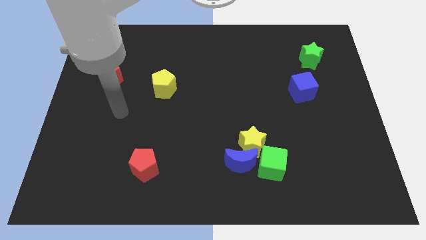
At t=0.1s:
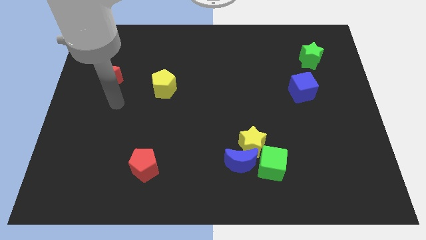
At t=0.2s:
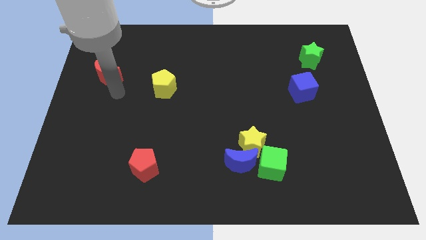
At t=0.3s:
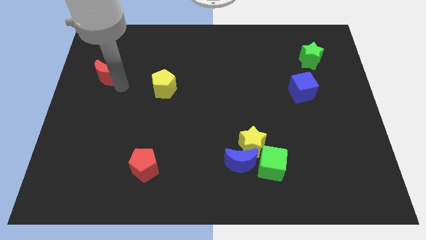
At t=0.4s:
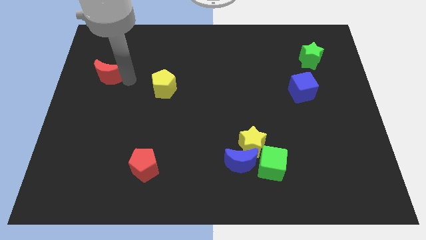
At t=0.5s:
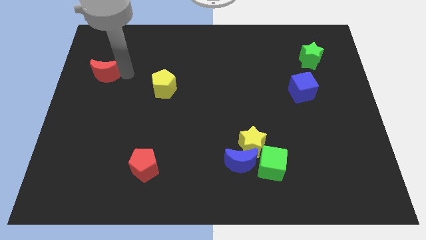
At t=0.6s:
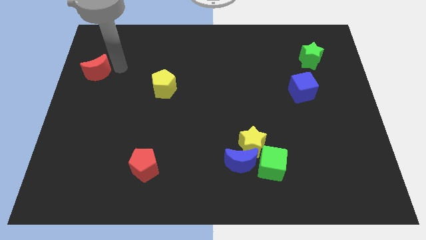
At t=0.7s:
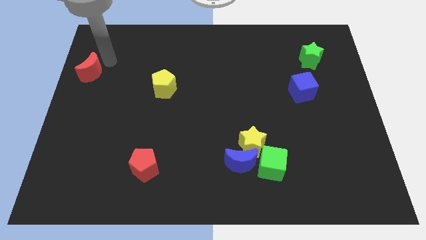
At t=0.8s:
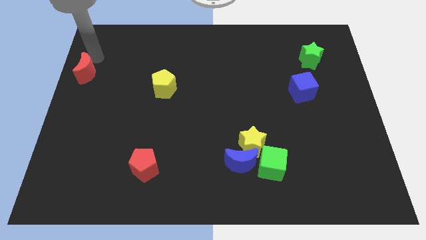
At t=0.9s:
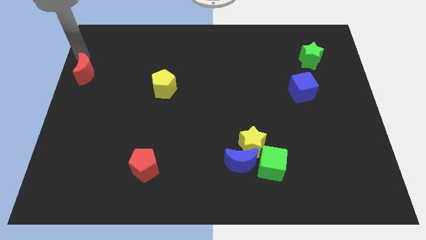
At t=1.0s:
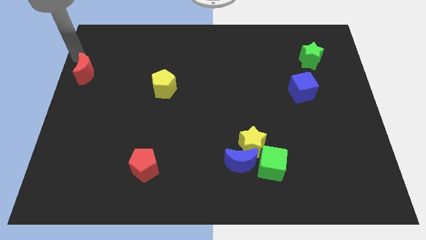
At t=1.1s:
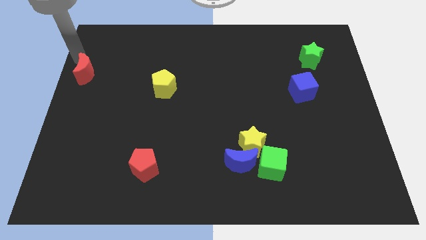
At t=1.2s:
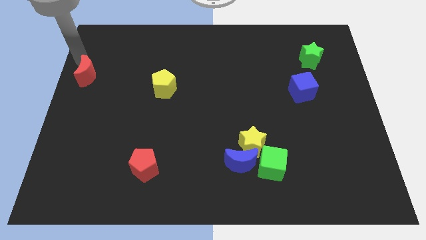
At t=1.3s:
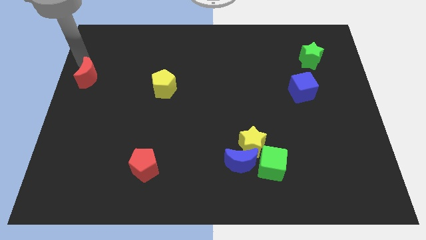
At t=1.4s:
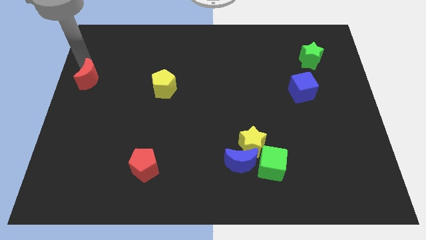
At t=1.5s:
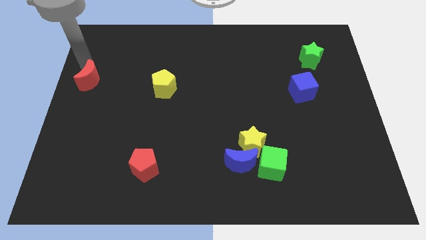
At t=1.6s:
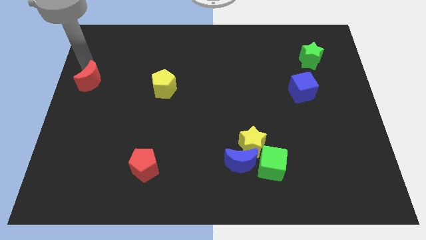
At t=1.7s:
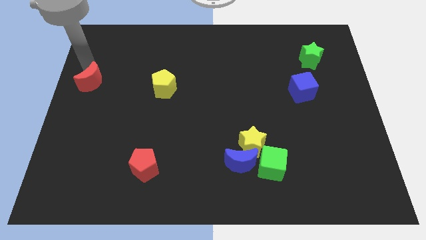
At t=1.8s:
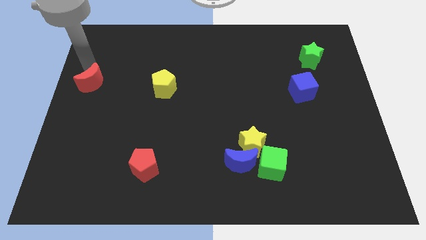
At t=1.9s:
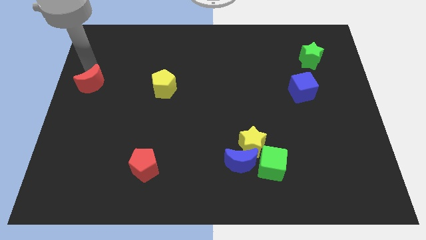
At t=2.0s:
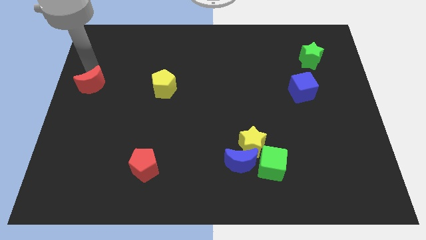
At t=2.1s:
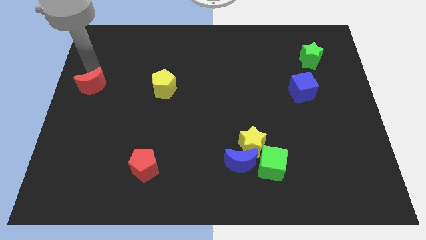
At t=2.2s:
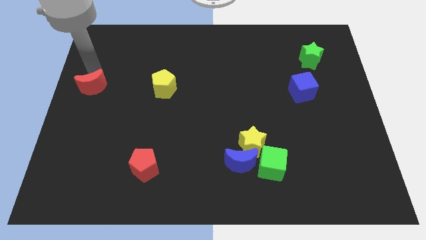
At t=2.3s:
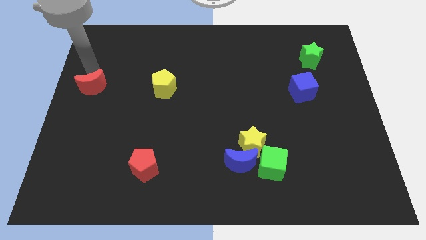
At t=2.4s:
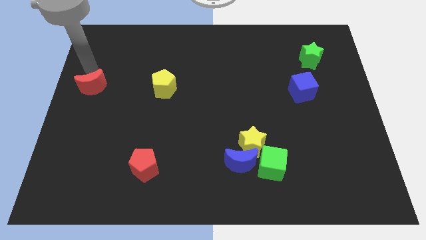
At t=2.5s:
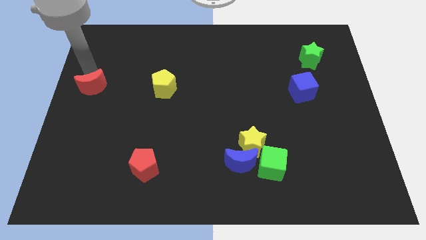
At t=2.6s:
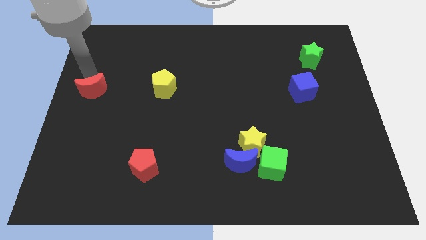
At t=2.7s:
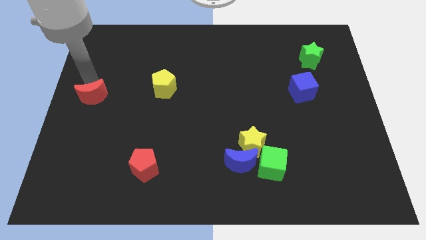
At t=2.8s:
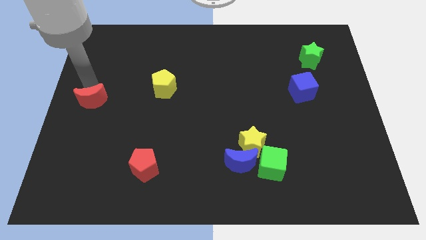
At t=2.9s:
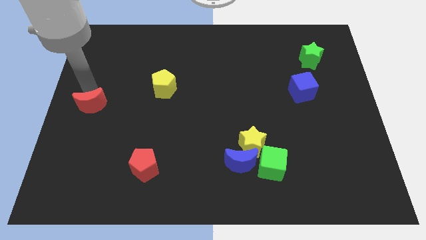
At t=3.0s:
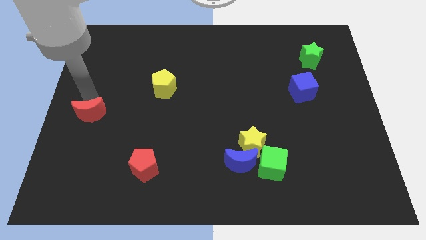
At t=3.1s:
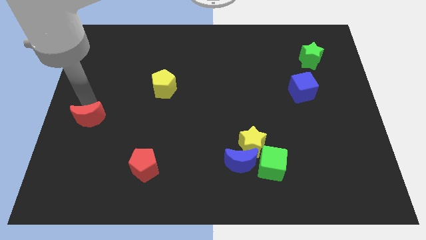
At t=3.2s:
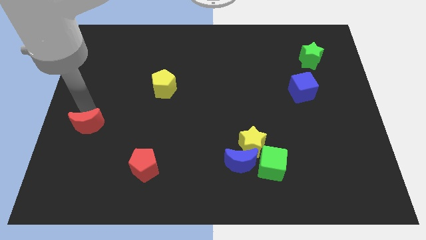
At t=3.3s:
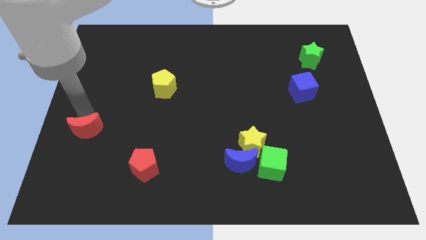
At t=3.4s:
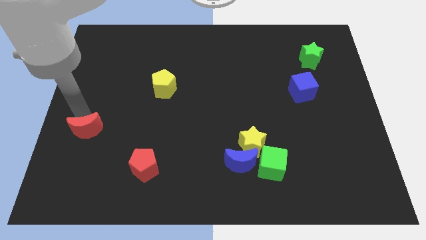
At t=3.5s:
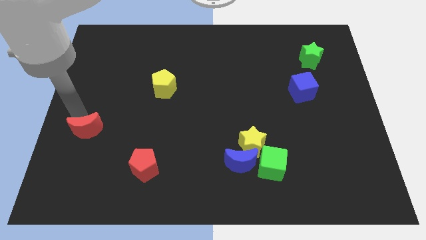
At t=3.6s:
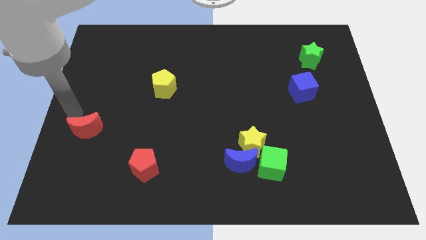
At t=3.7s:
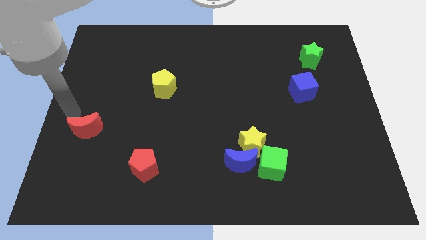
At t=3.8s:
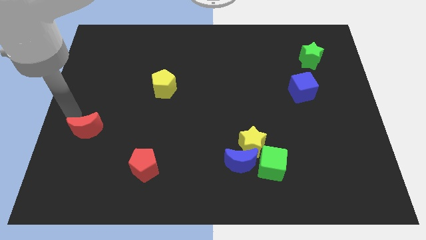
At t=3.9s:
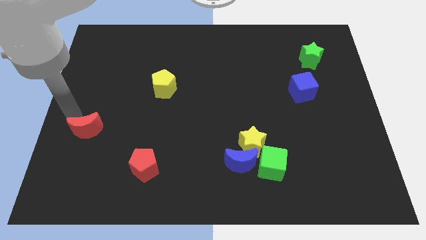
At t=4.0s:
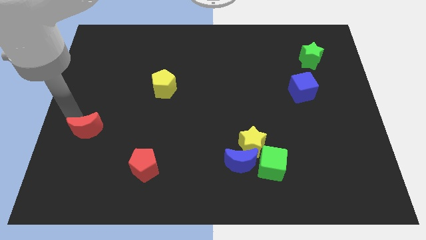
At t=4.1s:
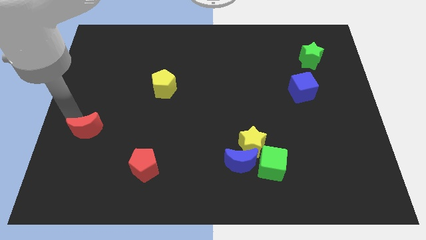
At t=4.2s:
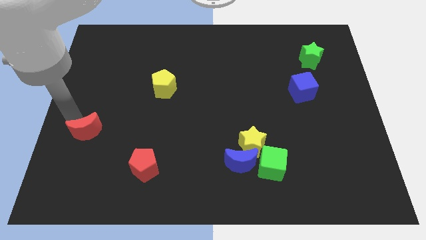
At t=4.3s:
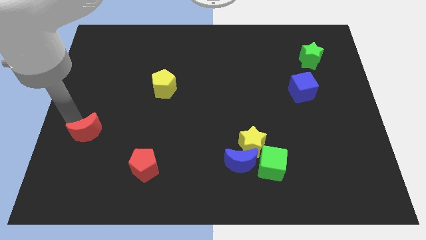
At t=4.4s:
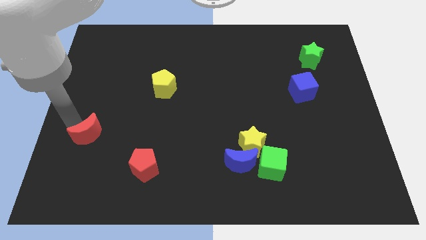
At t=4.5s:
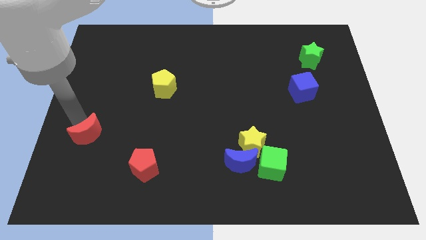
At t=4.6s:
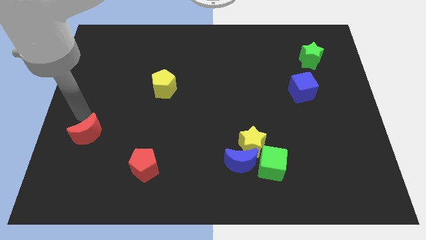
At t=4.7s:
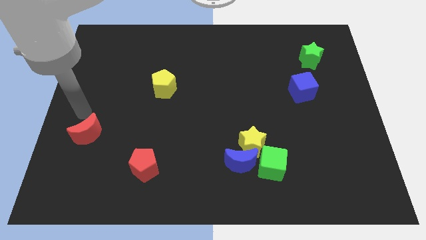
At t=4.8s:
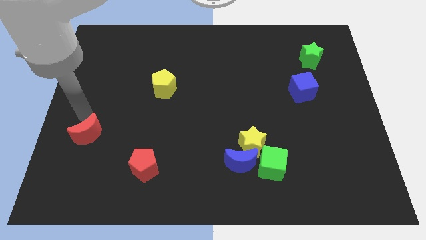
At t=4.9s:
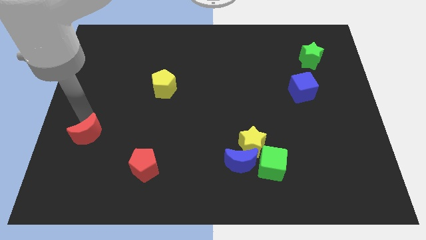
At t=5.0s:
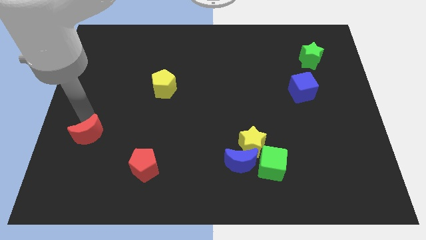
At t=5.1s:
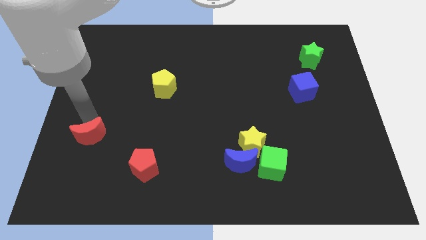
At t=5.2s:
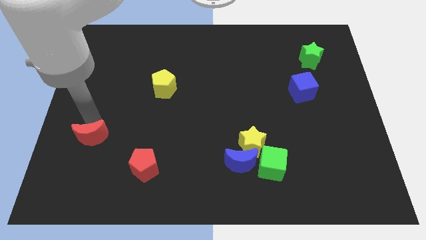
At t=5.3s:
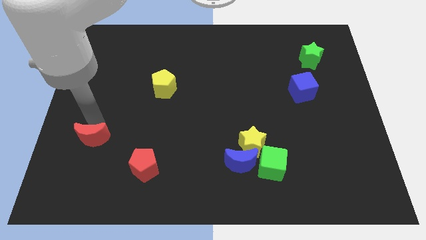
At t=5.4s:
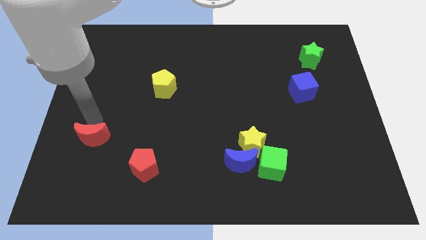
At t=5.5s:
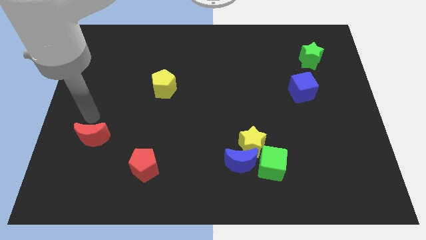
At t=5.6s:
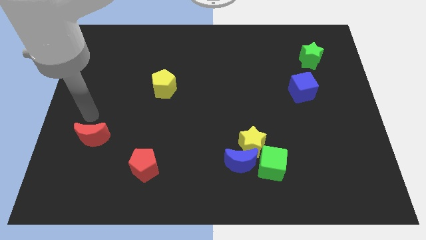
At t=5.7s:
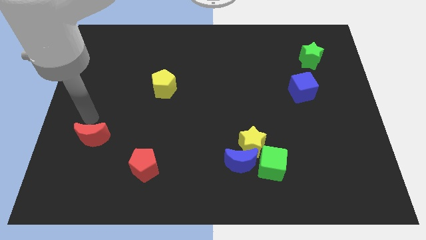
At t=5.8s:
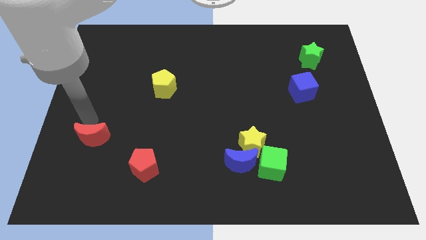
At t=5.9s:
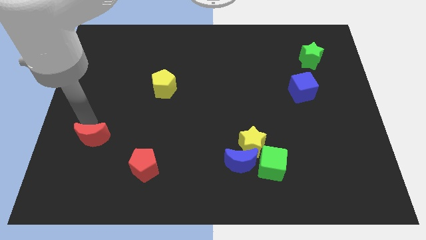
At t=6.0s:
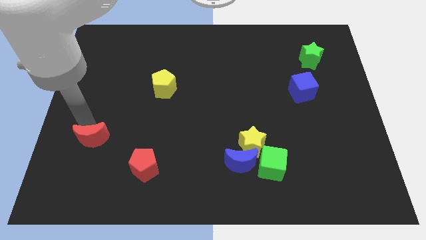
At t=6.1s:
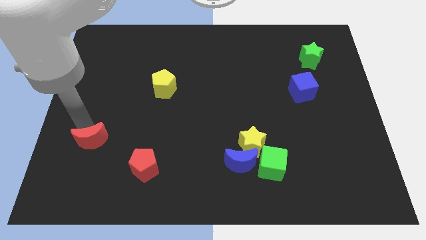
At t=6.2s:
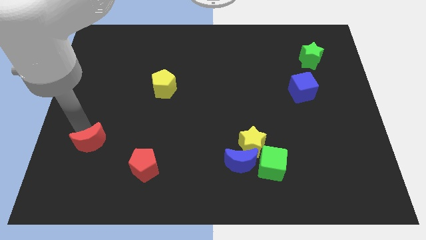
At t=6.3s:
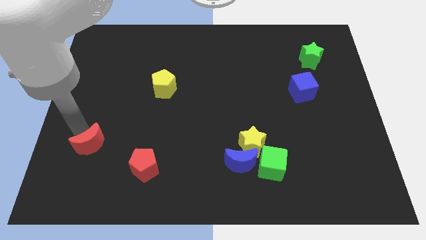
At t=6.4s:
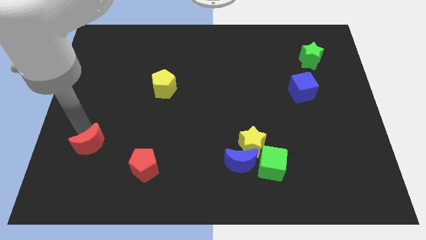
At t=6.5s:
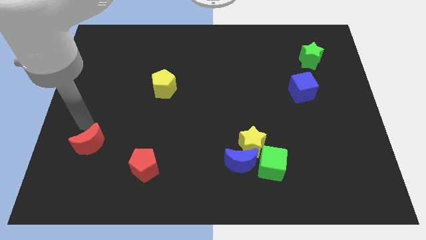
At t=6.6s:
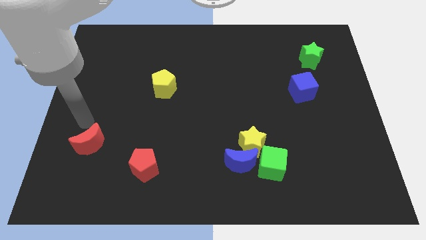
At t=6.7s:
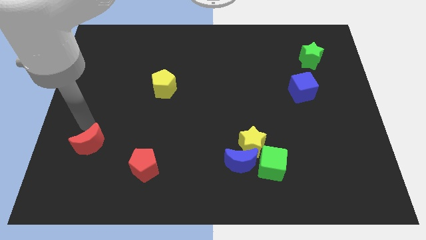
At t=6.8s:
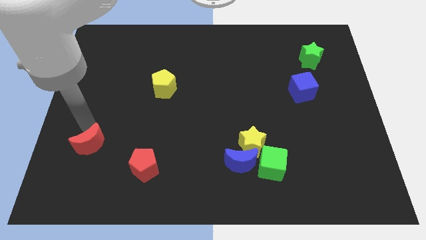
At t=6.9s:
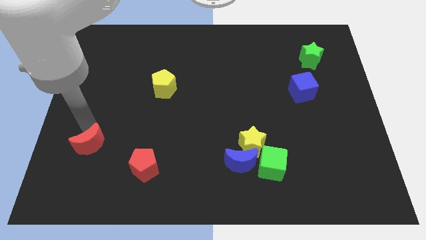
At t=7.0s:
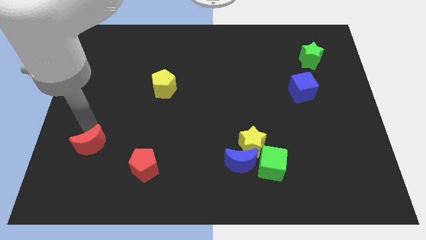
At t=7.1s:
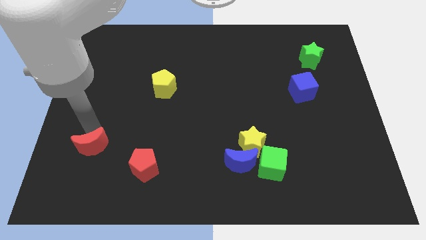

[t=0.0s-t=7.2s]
slide the red moon left of the red pentagon

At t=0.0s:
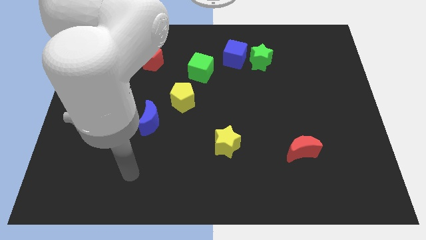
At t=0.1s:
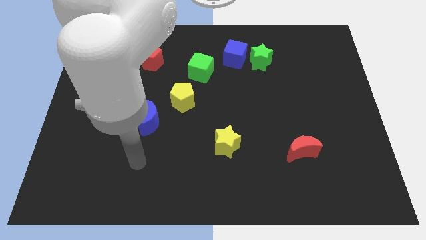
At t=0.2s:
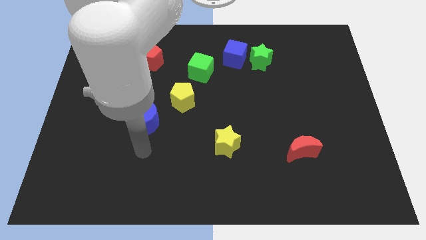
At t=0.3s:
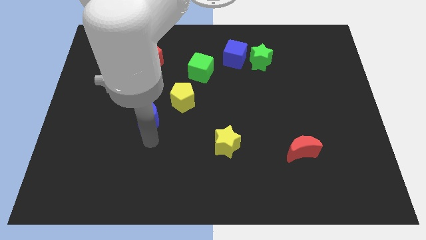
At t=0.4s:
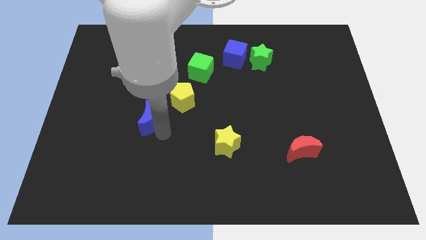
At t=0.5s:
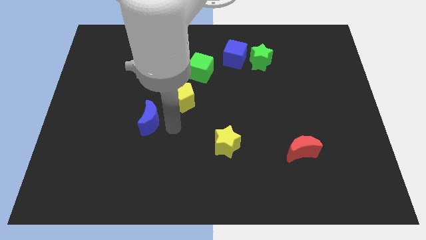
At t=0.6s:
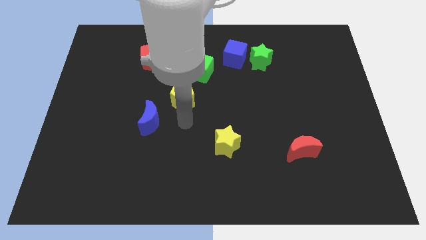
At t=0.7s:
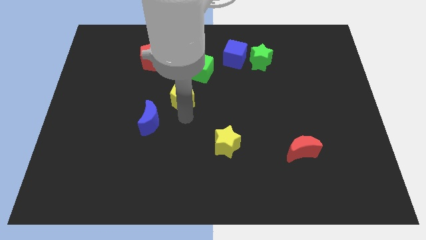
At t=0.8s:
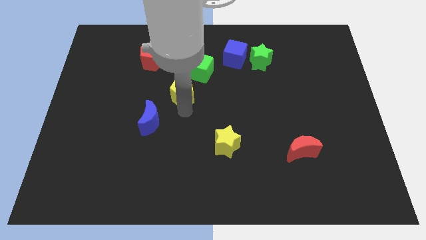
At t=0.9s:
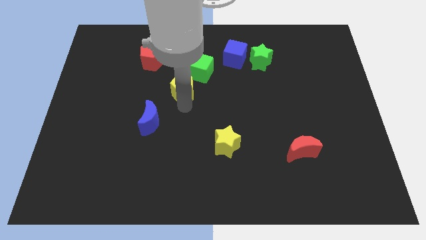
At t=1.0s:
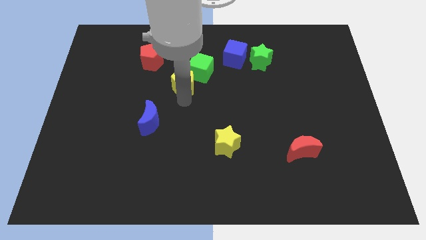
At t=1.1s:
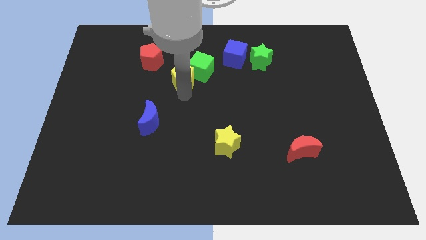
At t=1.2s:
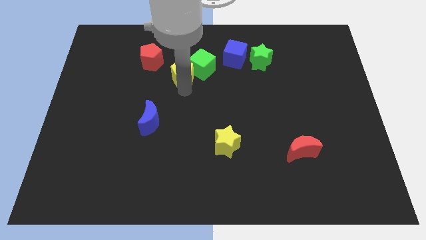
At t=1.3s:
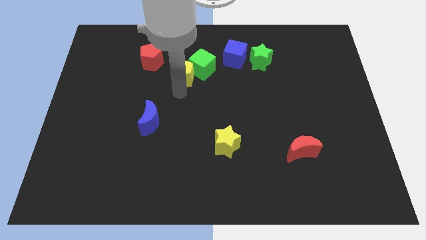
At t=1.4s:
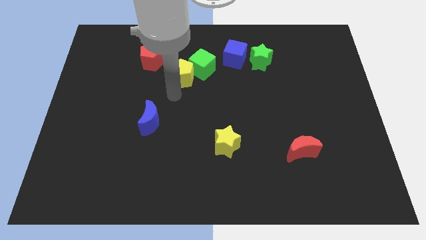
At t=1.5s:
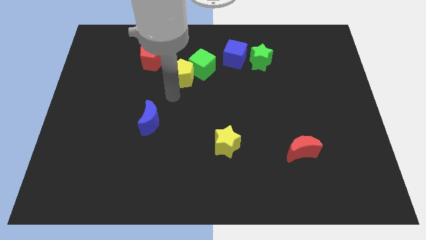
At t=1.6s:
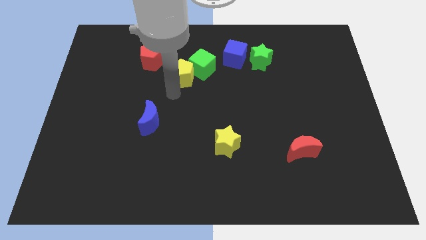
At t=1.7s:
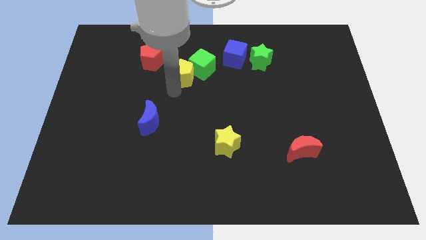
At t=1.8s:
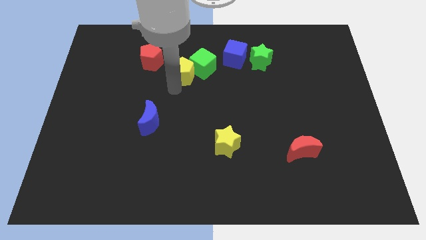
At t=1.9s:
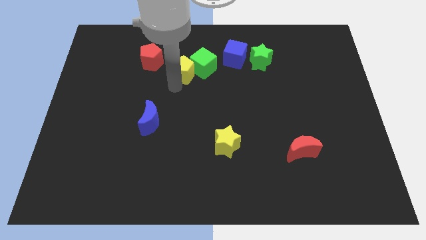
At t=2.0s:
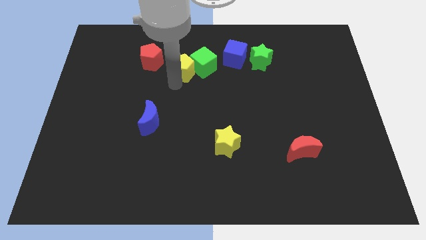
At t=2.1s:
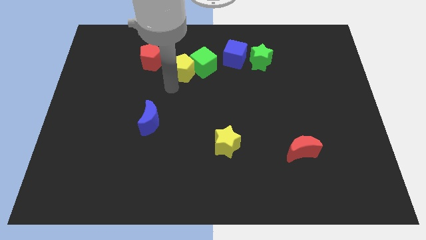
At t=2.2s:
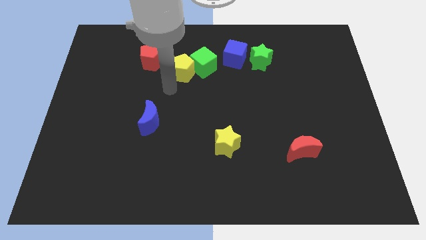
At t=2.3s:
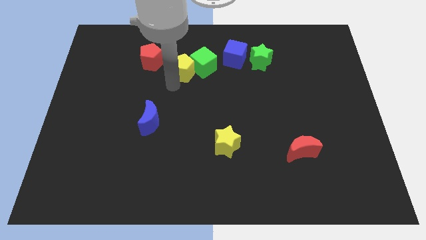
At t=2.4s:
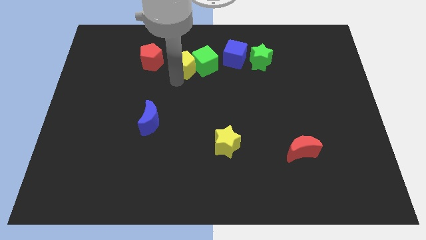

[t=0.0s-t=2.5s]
push the yellow pentagon to the left of the blue cube
